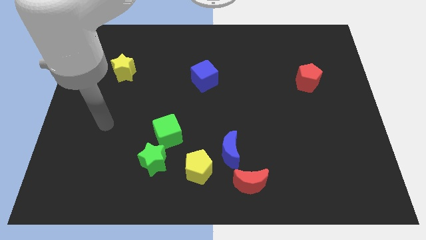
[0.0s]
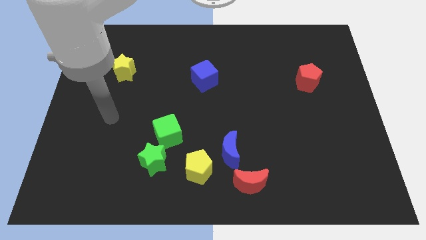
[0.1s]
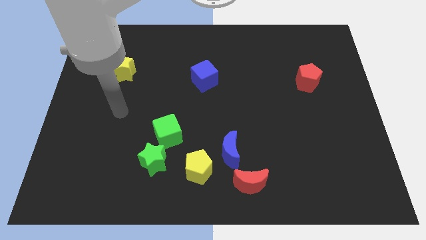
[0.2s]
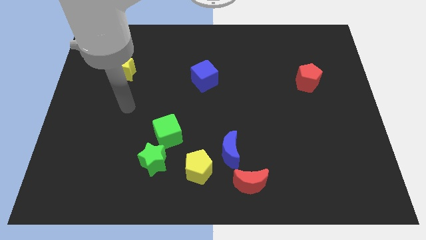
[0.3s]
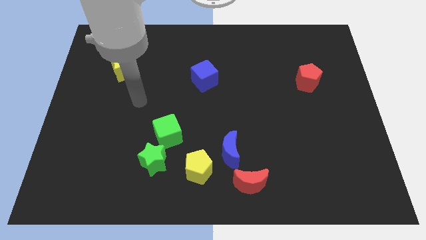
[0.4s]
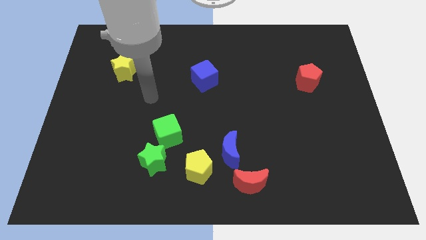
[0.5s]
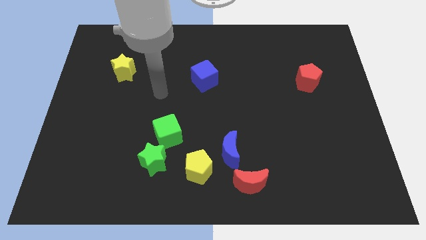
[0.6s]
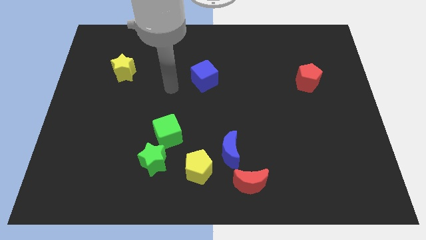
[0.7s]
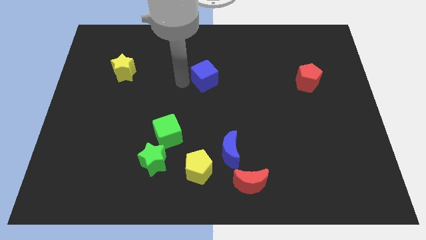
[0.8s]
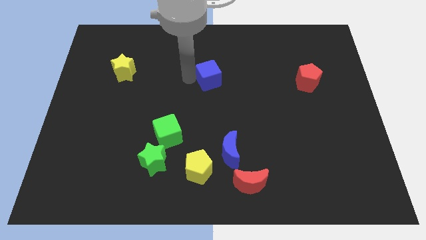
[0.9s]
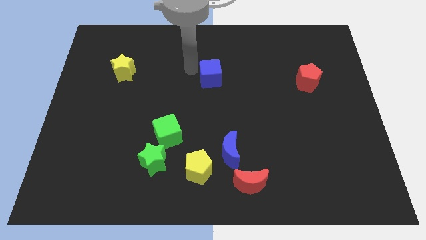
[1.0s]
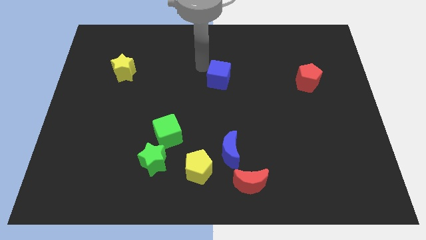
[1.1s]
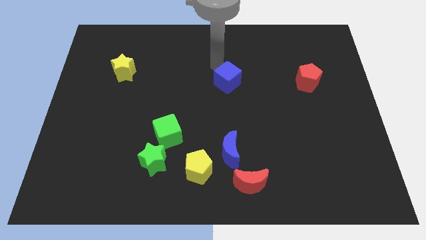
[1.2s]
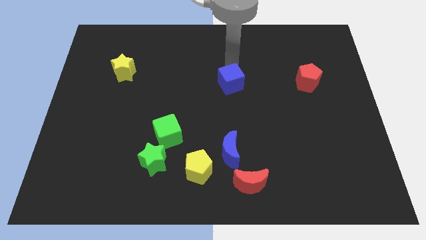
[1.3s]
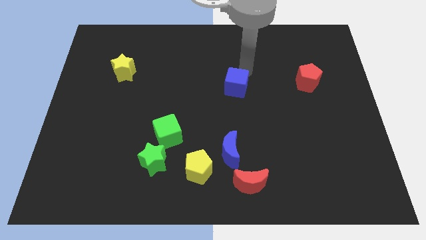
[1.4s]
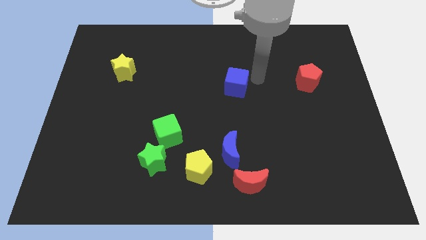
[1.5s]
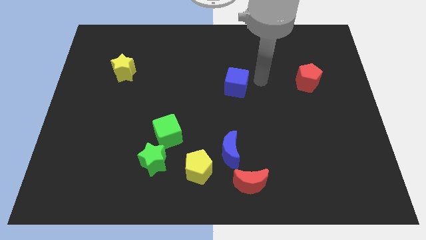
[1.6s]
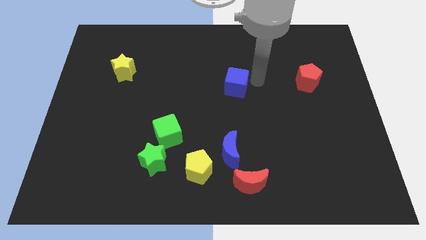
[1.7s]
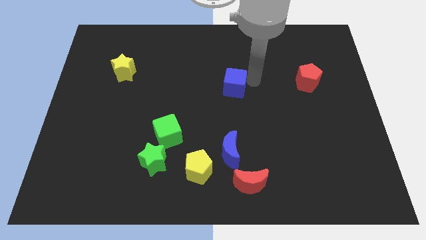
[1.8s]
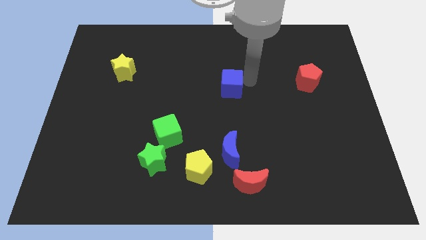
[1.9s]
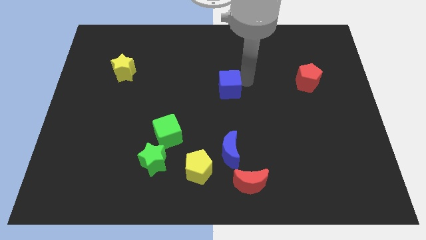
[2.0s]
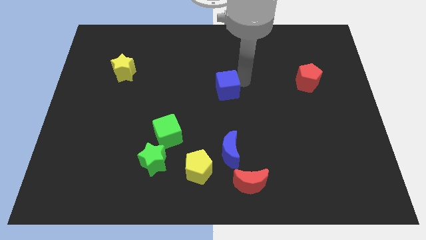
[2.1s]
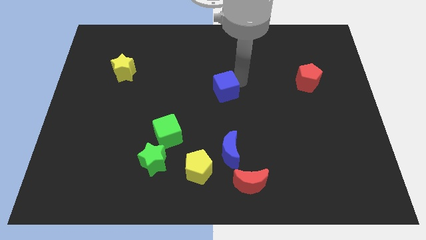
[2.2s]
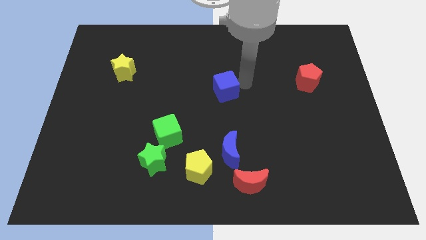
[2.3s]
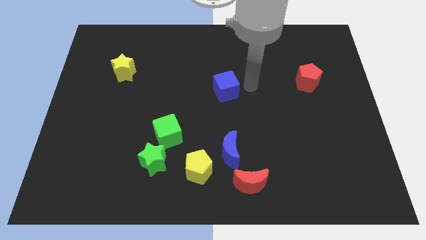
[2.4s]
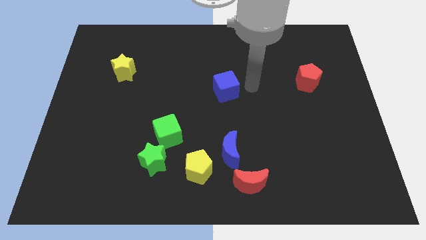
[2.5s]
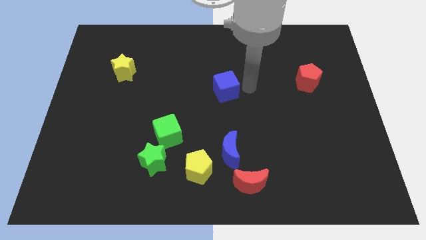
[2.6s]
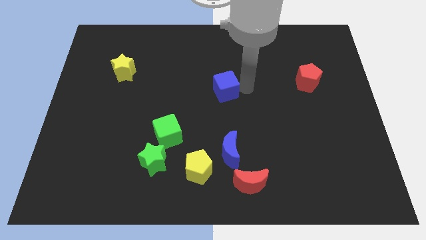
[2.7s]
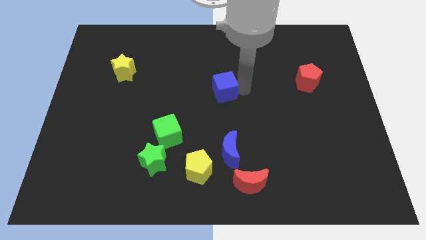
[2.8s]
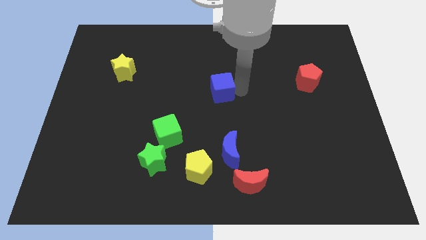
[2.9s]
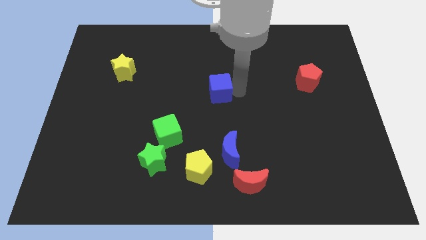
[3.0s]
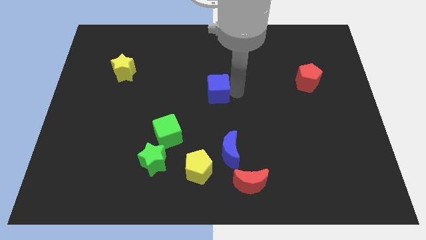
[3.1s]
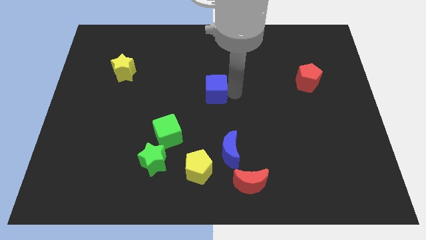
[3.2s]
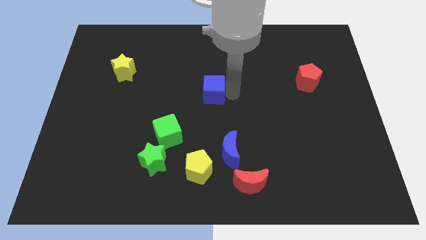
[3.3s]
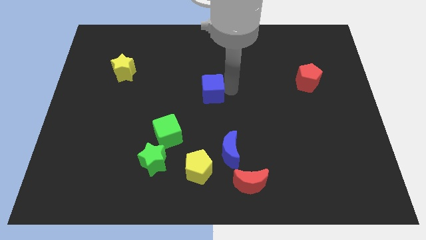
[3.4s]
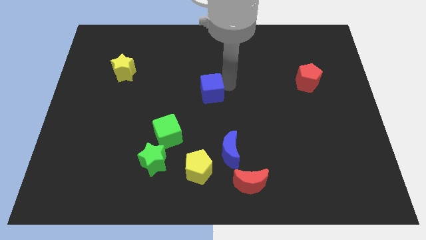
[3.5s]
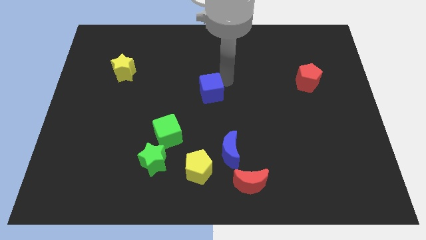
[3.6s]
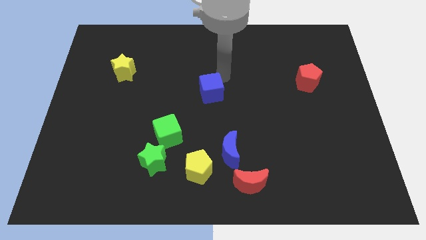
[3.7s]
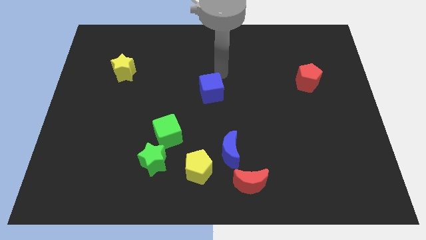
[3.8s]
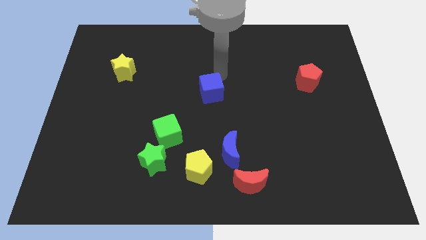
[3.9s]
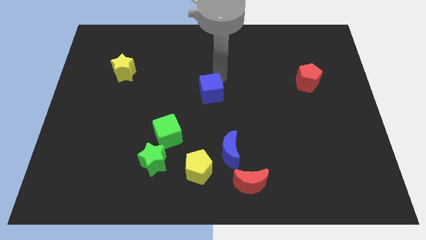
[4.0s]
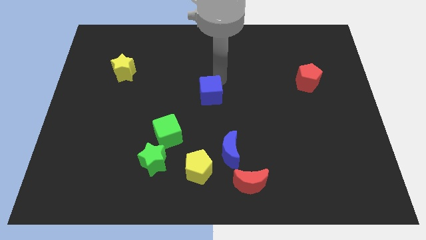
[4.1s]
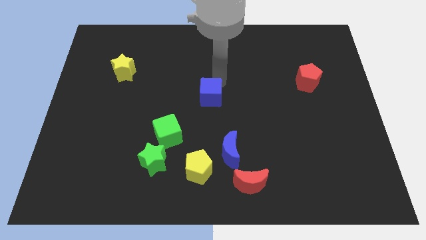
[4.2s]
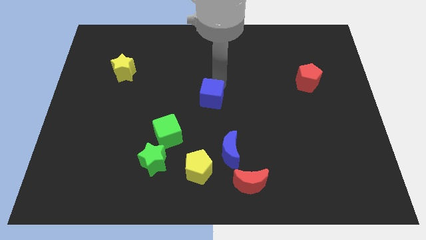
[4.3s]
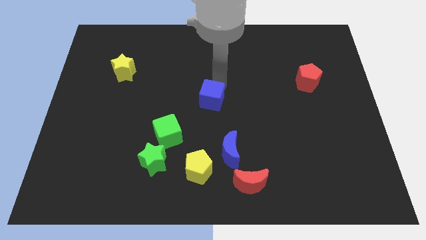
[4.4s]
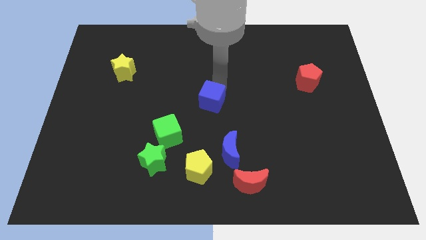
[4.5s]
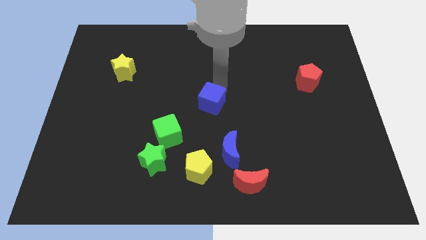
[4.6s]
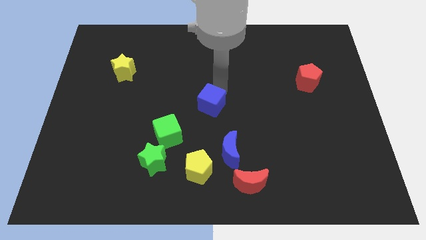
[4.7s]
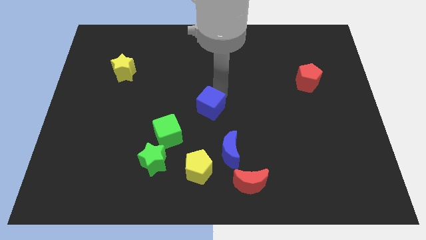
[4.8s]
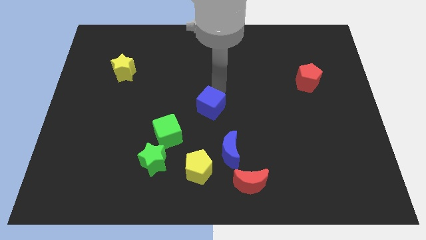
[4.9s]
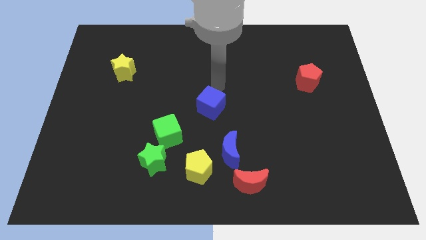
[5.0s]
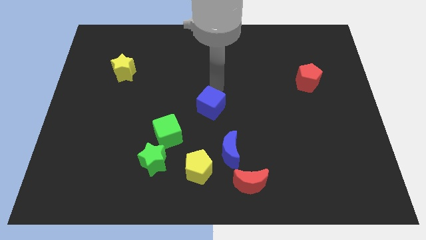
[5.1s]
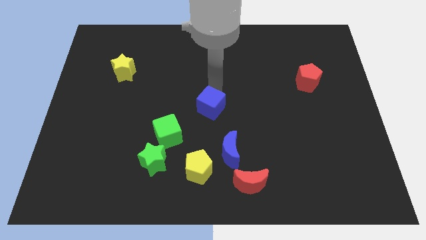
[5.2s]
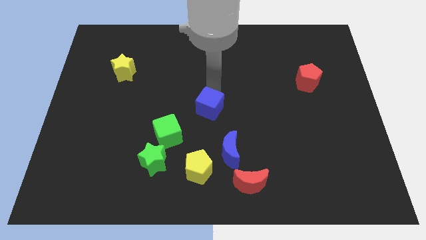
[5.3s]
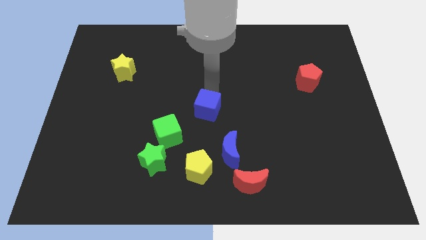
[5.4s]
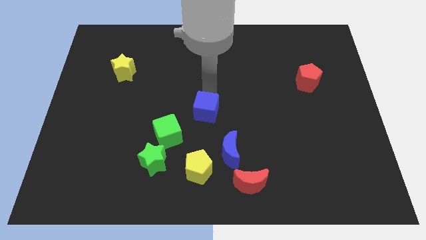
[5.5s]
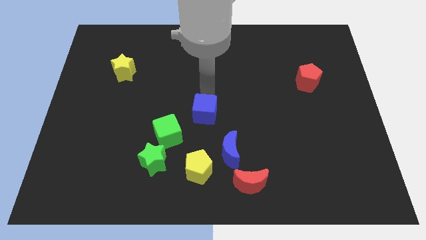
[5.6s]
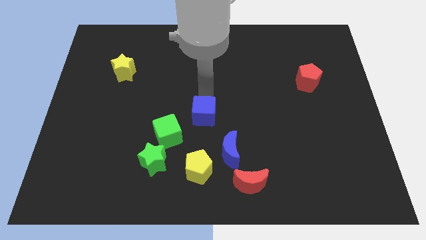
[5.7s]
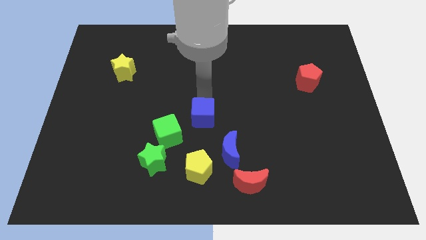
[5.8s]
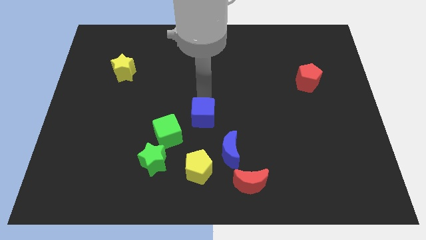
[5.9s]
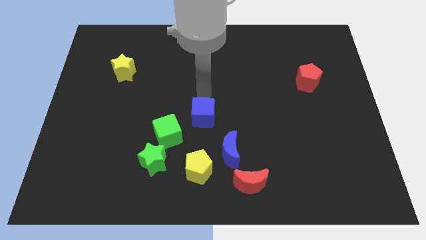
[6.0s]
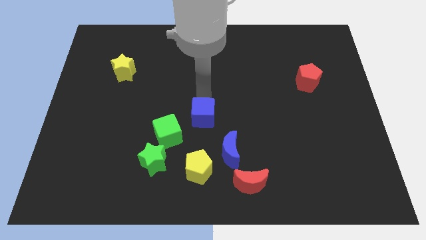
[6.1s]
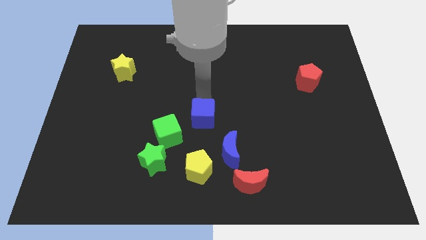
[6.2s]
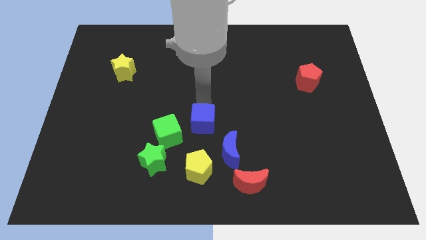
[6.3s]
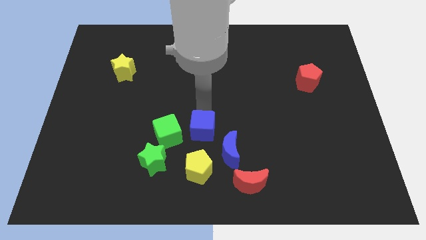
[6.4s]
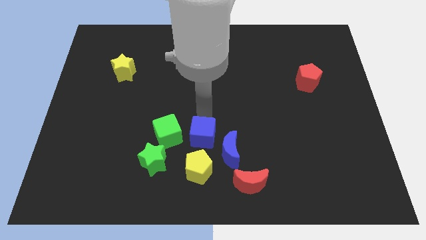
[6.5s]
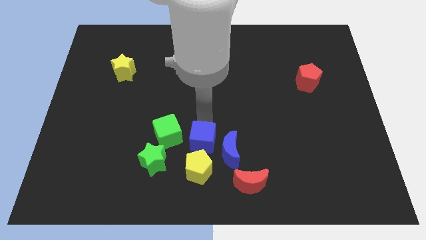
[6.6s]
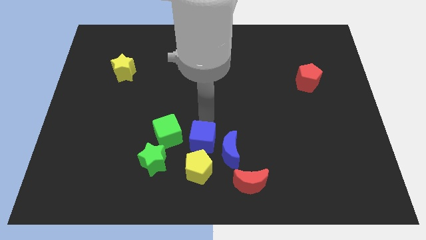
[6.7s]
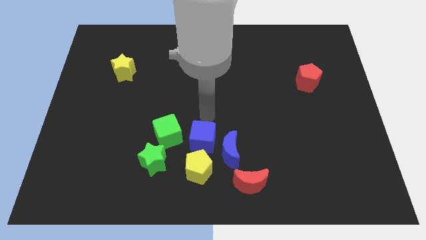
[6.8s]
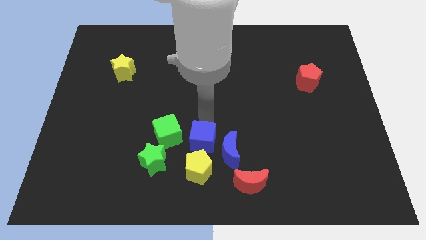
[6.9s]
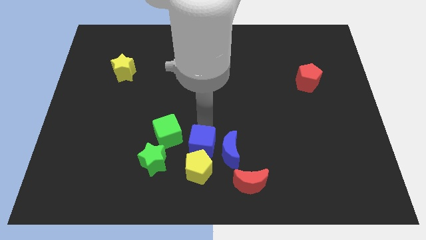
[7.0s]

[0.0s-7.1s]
put the blue cube close to the yellow pentagon

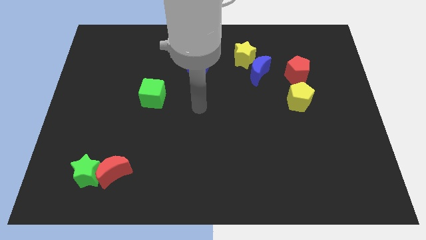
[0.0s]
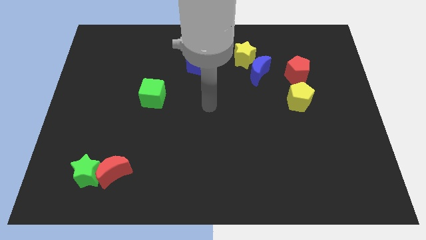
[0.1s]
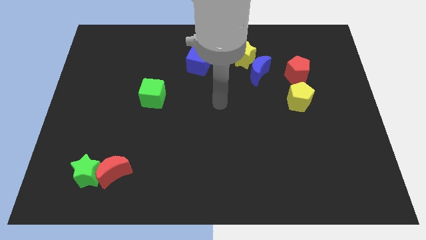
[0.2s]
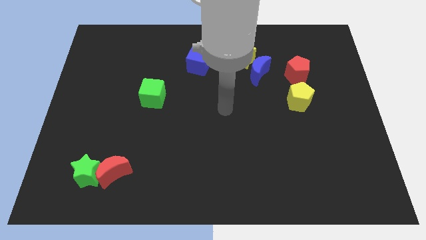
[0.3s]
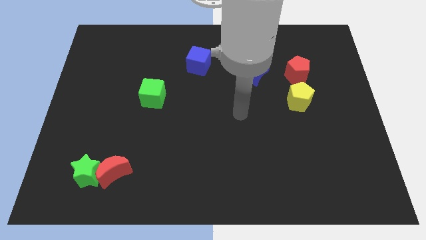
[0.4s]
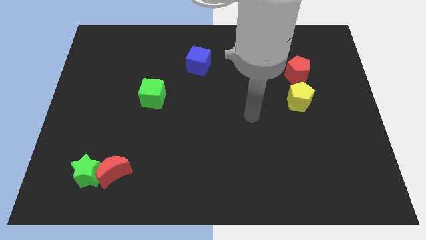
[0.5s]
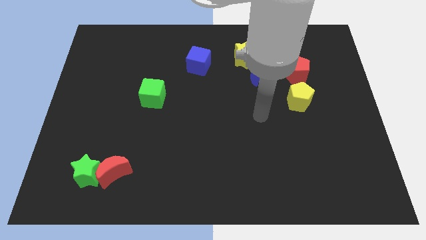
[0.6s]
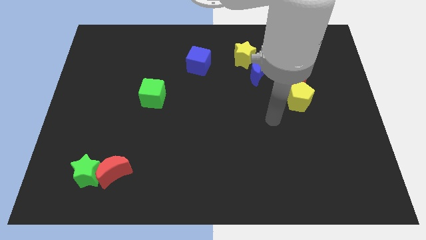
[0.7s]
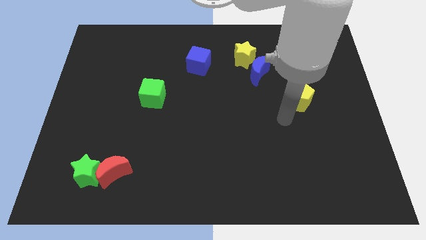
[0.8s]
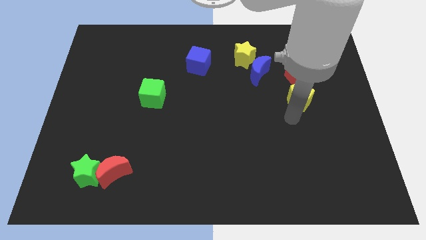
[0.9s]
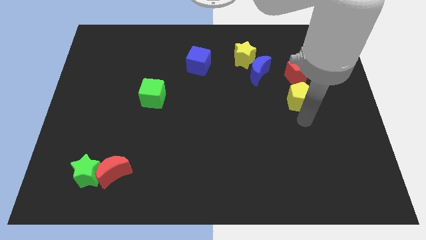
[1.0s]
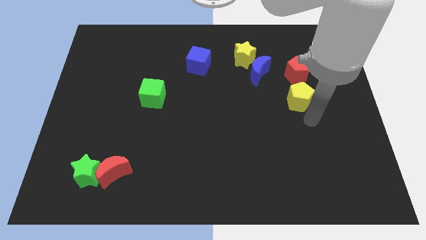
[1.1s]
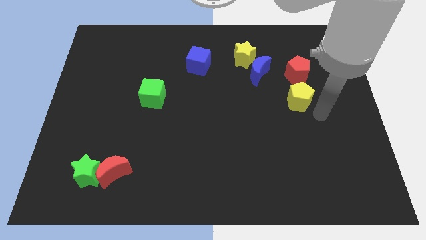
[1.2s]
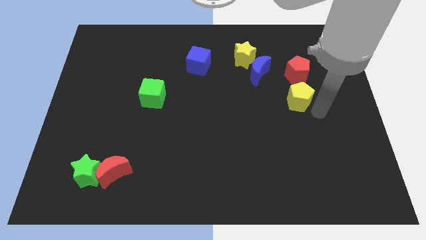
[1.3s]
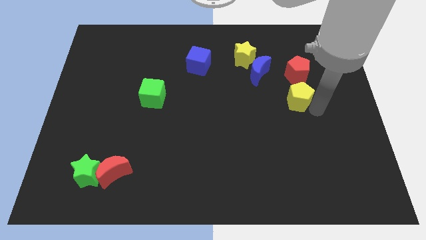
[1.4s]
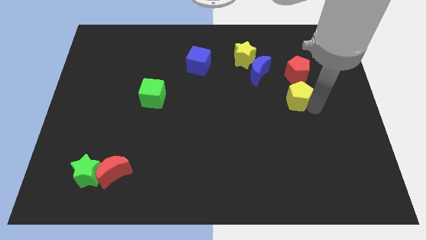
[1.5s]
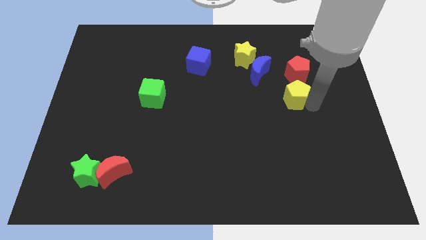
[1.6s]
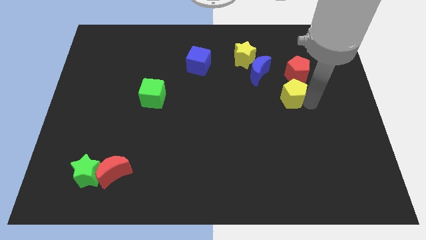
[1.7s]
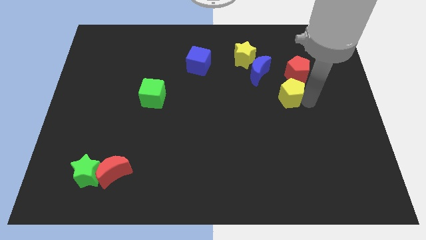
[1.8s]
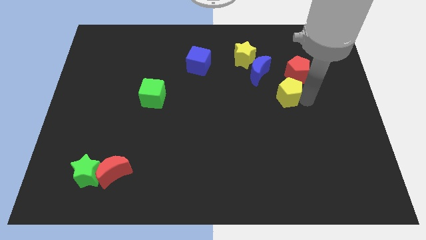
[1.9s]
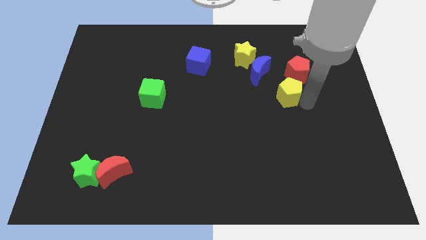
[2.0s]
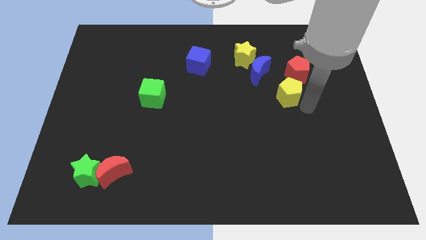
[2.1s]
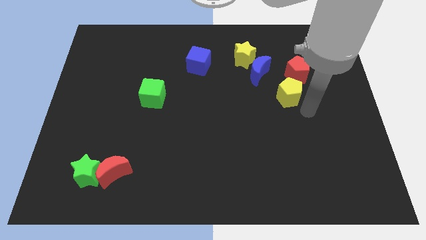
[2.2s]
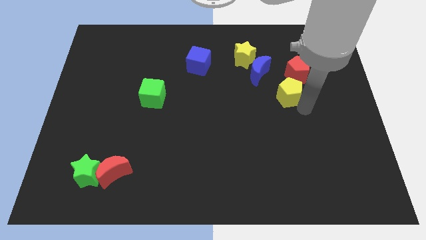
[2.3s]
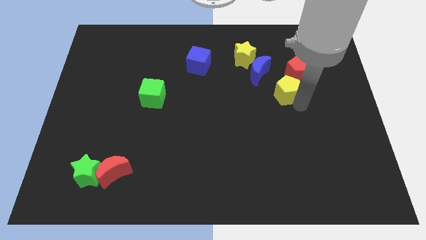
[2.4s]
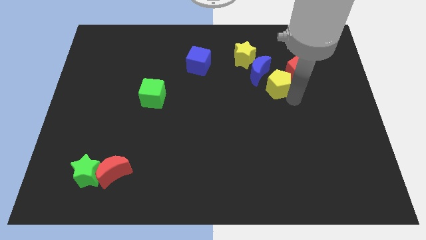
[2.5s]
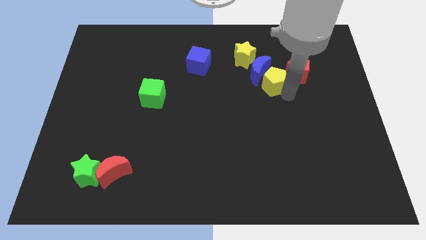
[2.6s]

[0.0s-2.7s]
move the yellow pentagon towards the blue moon
